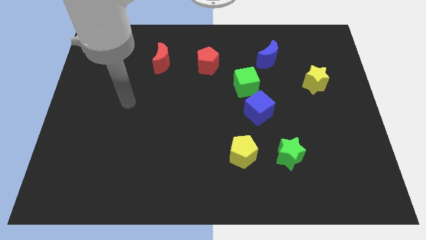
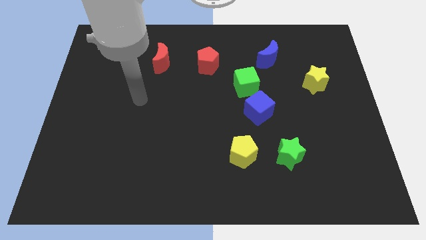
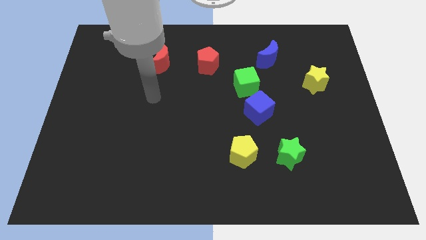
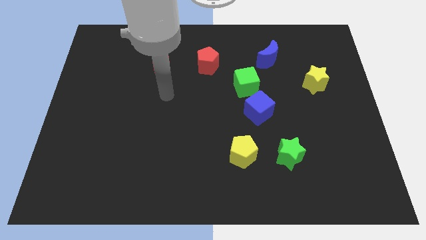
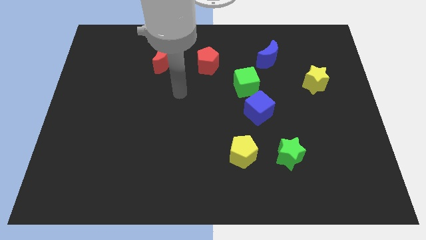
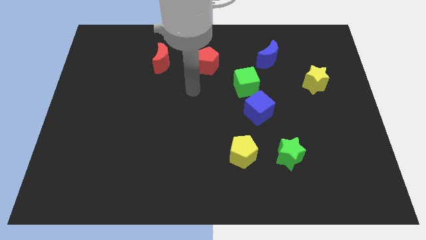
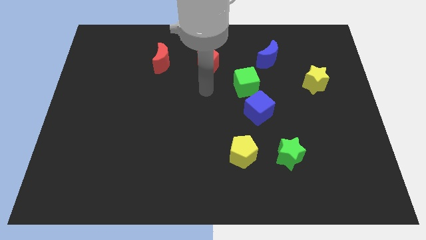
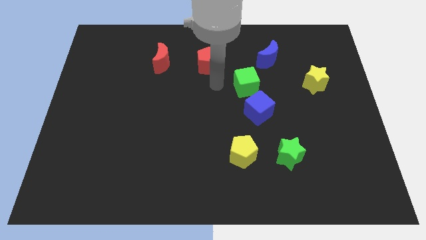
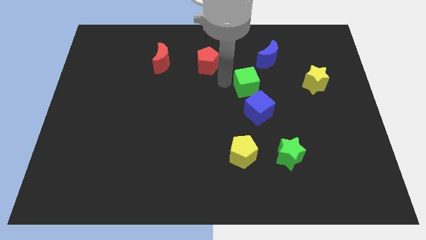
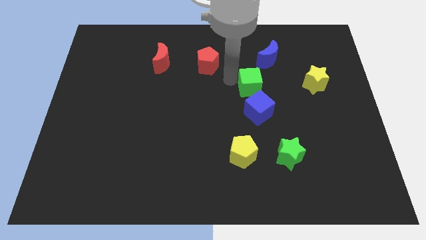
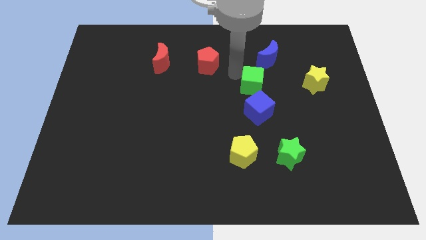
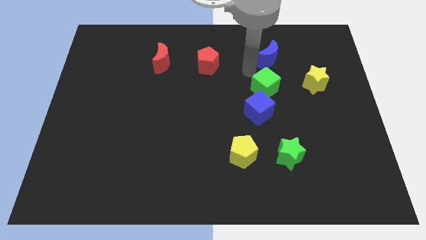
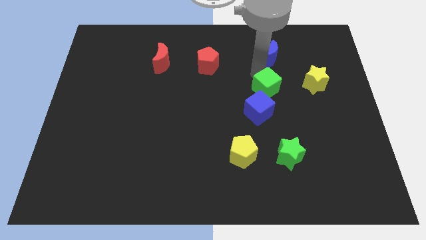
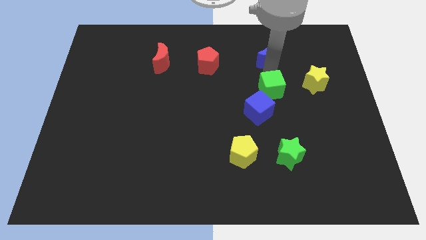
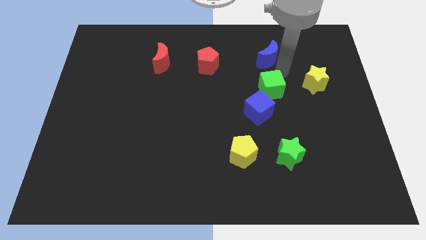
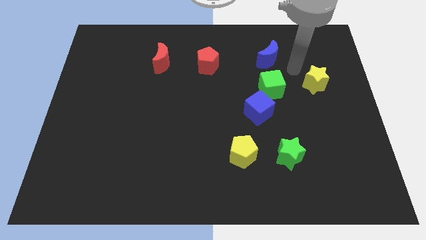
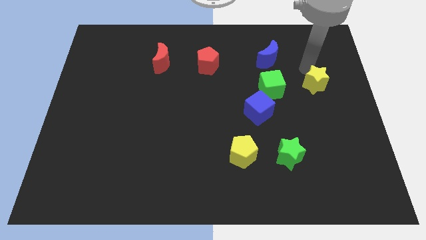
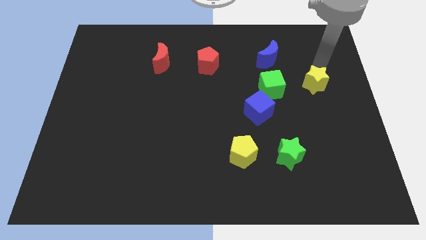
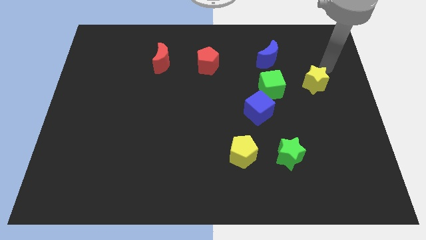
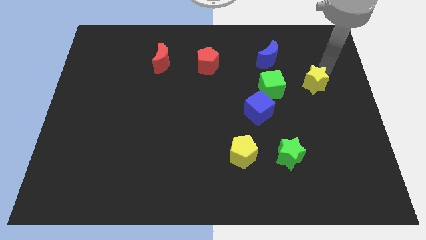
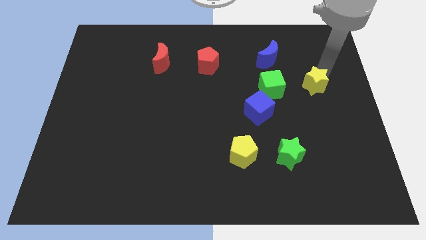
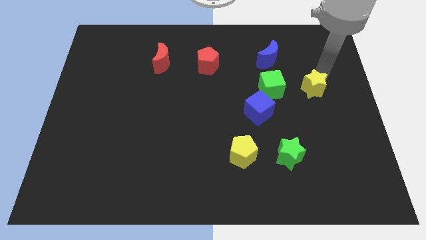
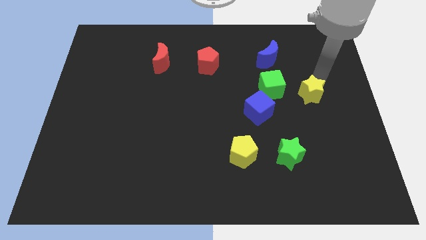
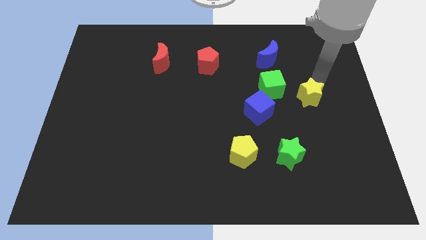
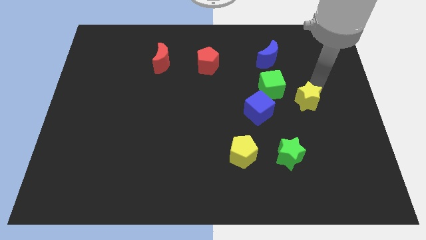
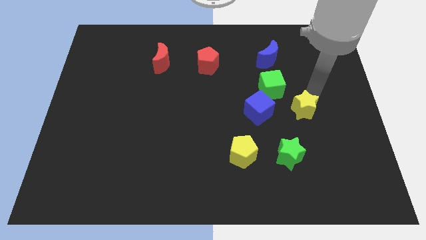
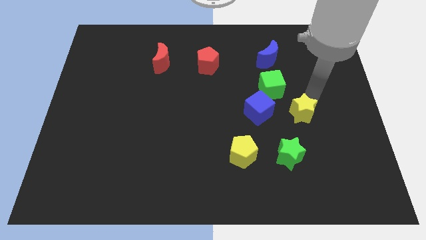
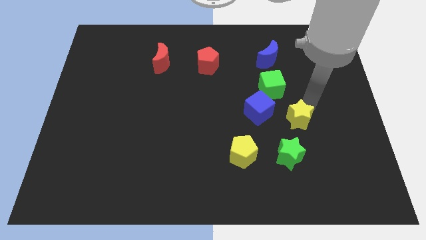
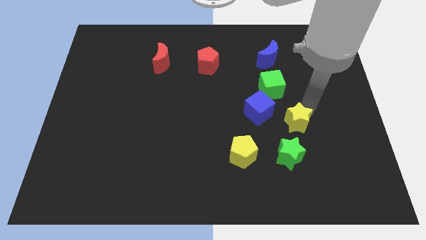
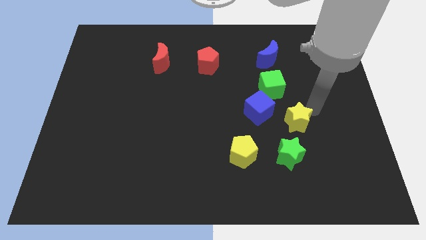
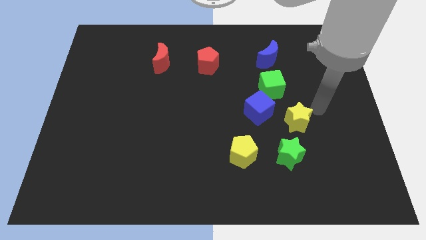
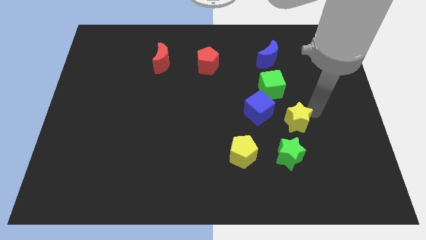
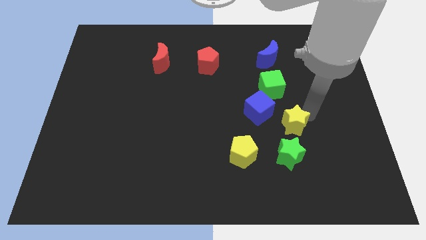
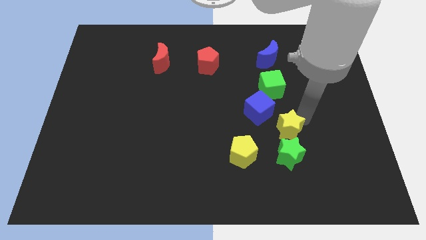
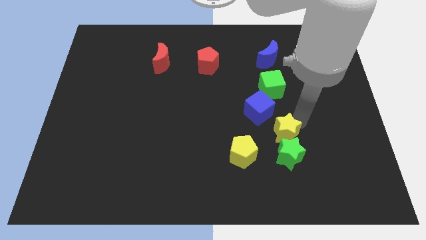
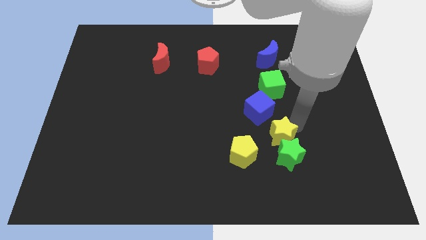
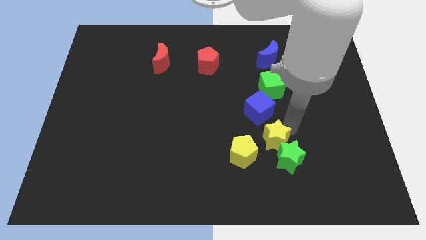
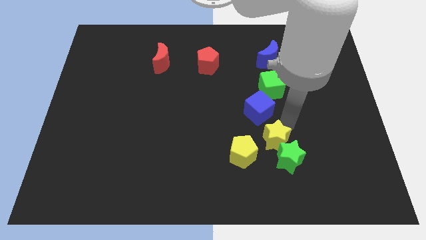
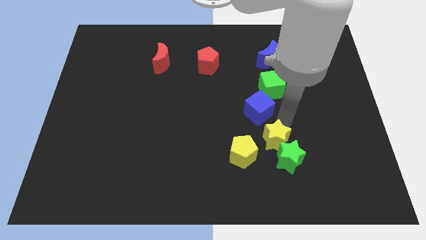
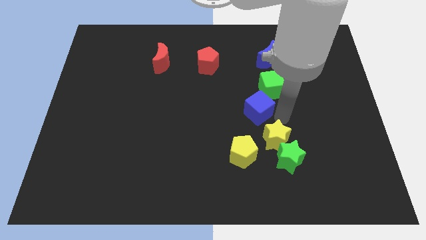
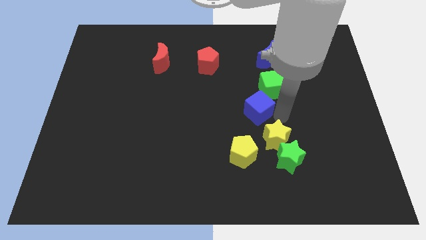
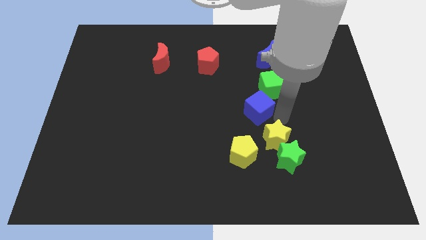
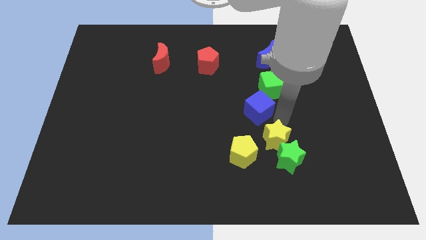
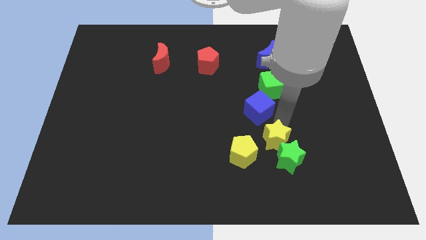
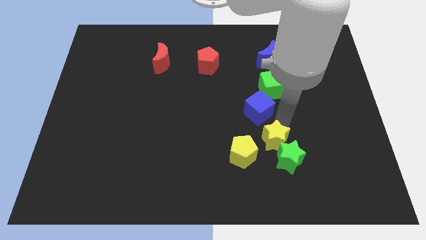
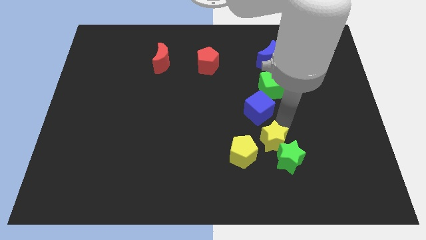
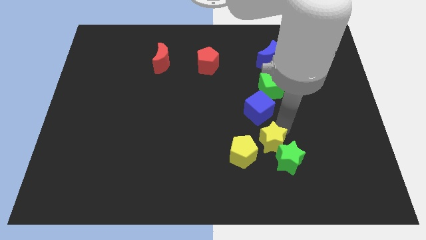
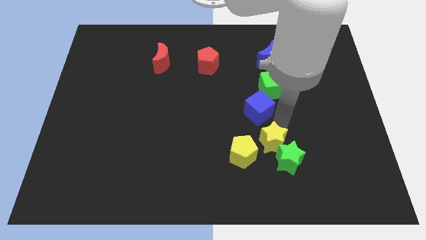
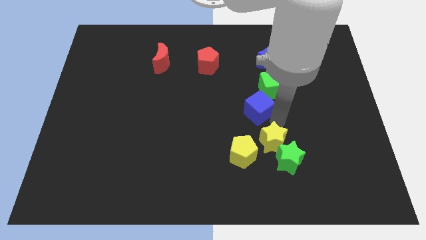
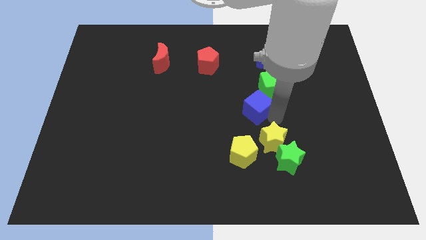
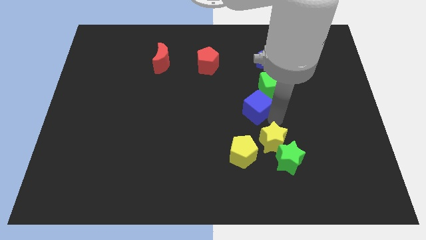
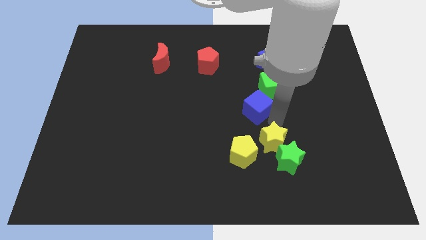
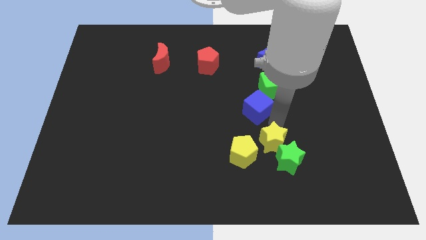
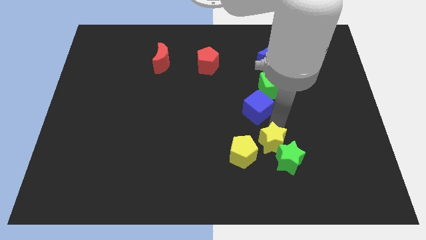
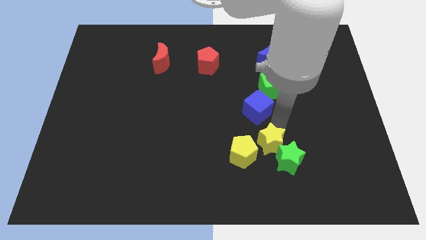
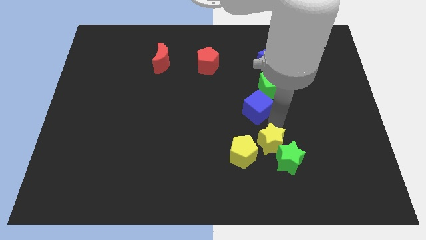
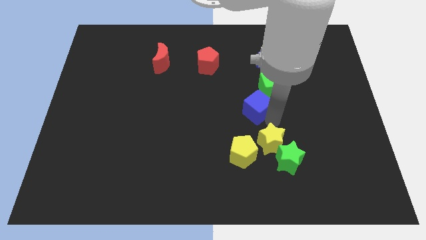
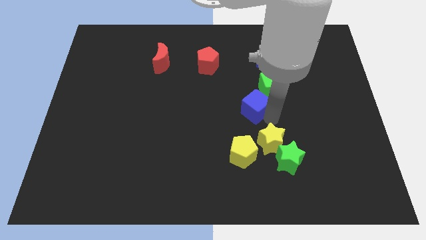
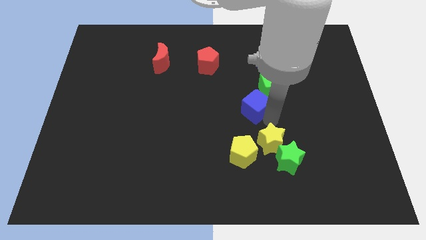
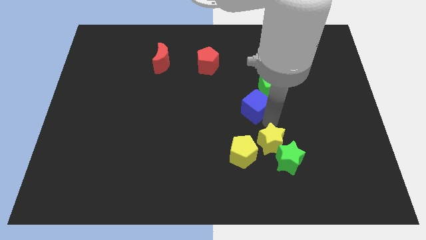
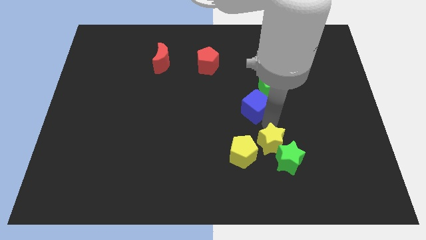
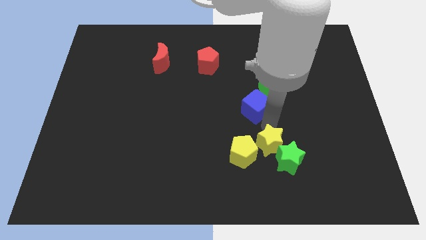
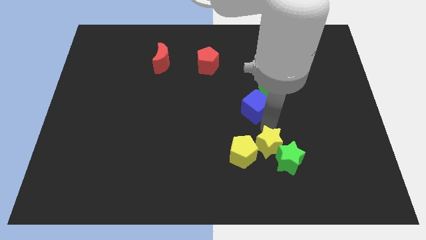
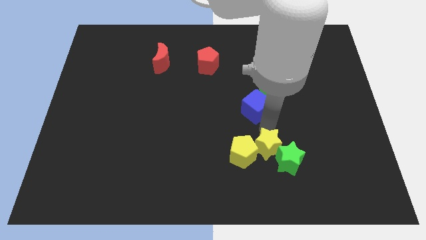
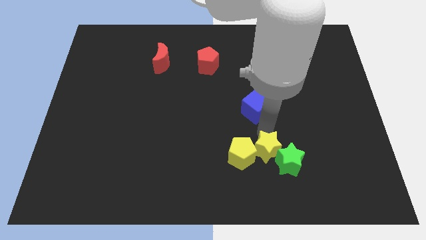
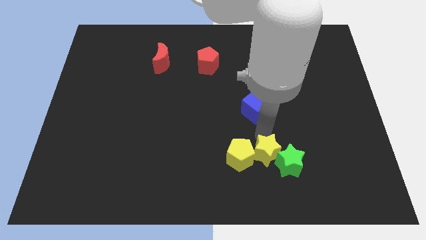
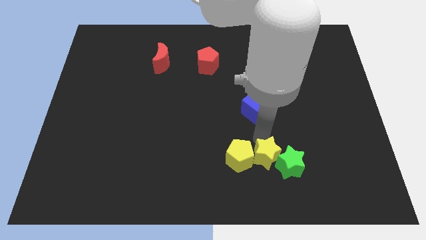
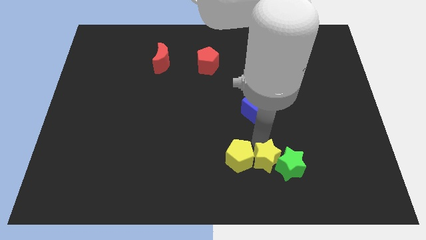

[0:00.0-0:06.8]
slide the yellow star to the bottom left side of the green star
